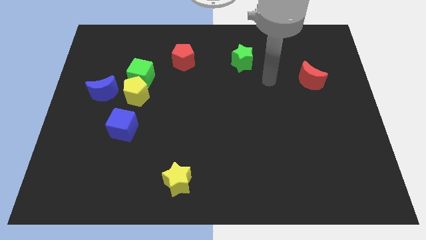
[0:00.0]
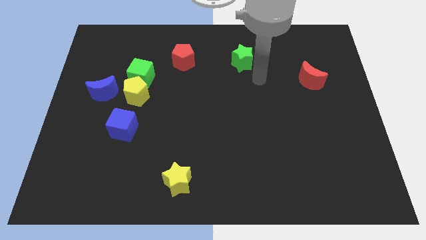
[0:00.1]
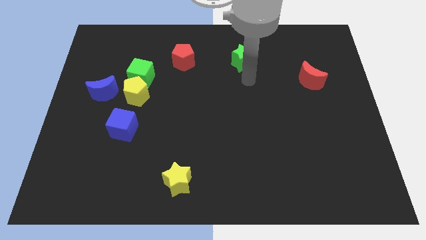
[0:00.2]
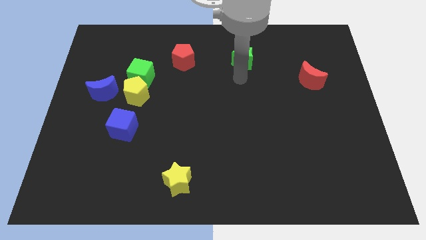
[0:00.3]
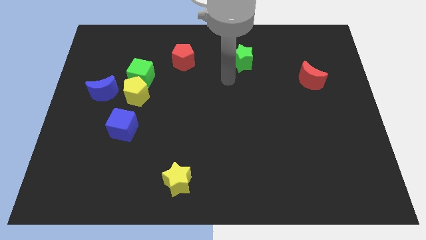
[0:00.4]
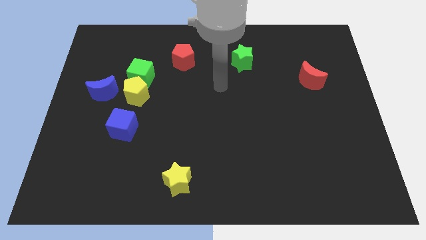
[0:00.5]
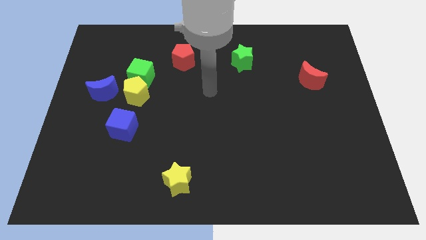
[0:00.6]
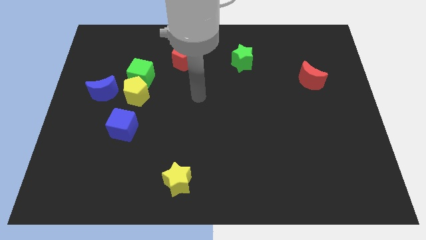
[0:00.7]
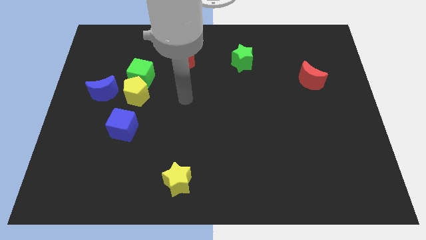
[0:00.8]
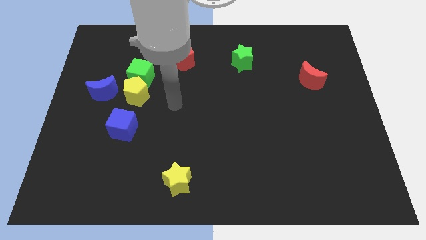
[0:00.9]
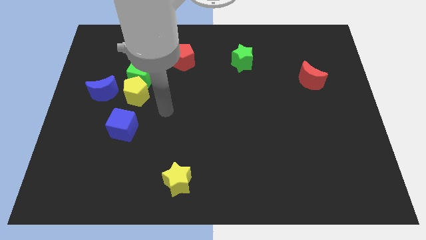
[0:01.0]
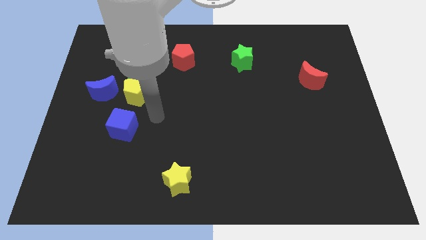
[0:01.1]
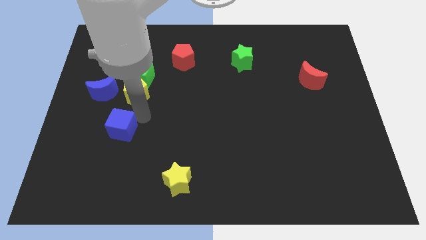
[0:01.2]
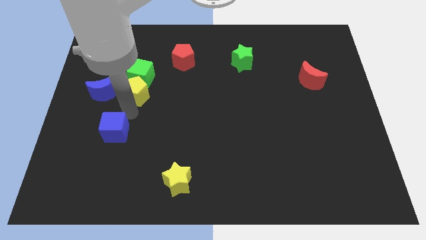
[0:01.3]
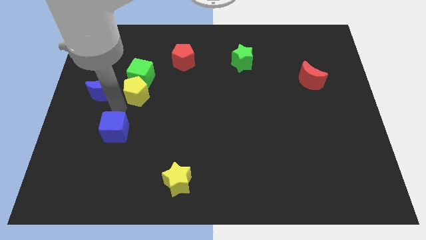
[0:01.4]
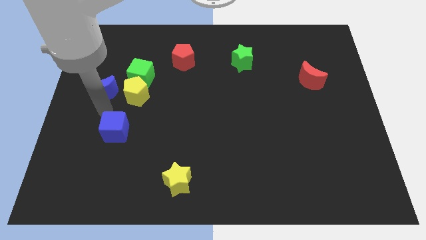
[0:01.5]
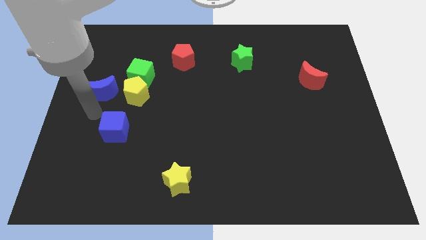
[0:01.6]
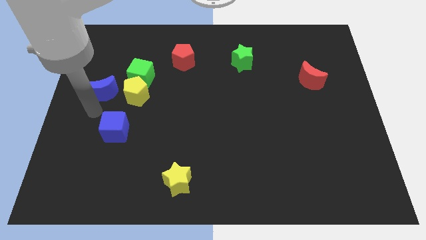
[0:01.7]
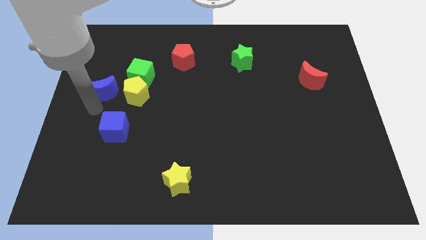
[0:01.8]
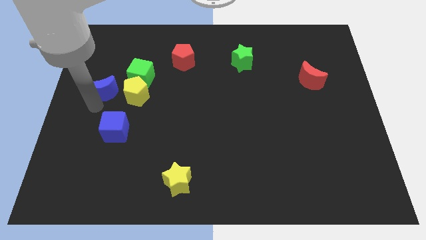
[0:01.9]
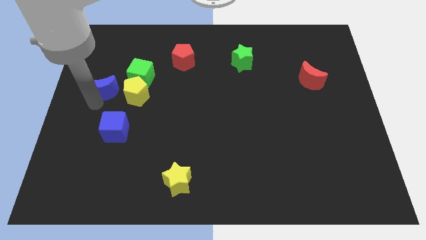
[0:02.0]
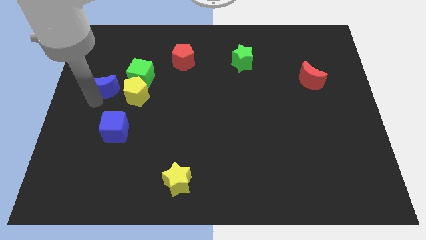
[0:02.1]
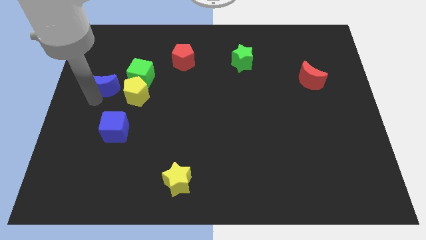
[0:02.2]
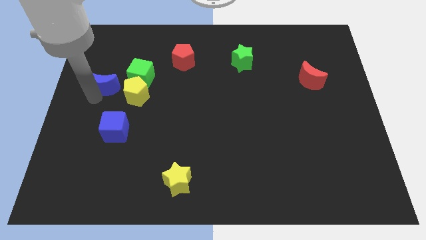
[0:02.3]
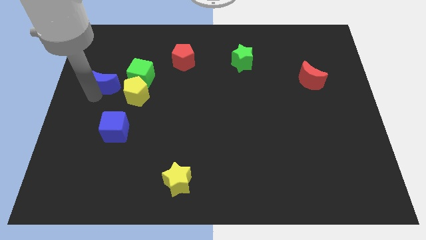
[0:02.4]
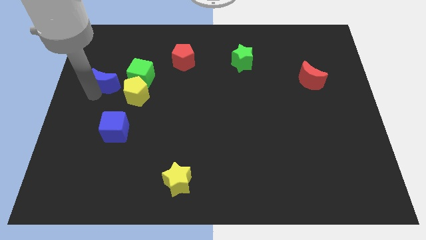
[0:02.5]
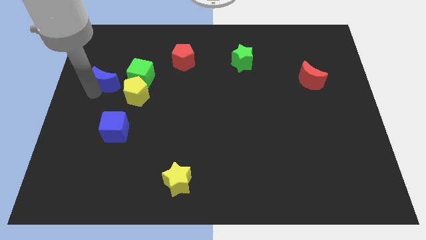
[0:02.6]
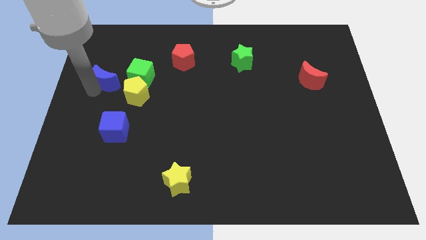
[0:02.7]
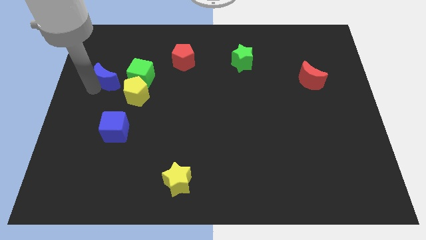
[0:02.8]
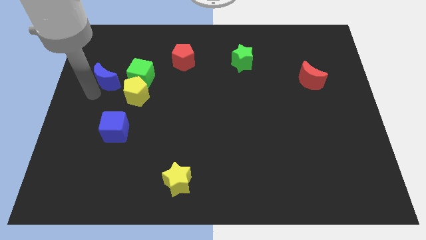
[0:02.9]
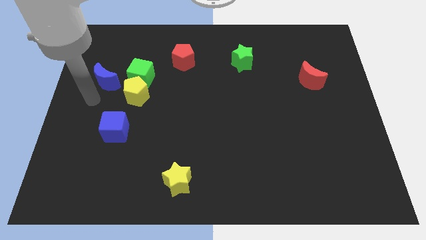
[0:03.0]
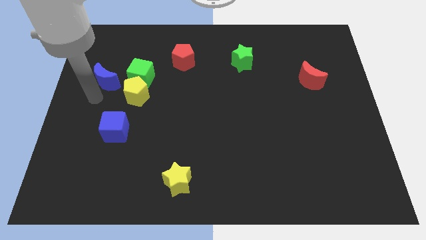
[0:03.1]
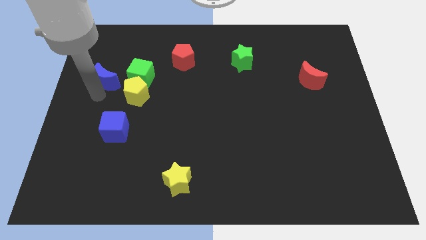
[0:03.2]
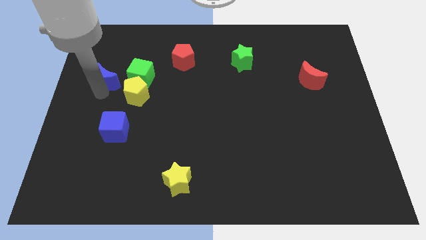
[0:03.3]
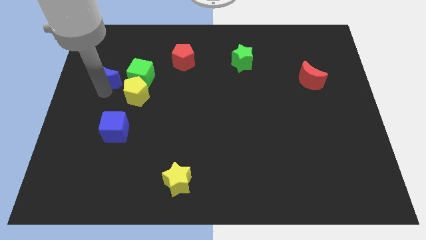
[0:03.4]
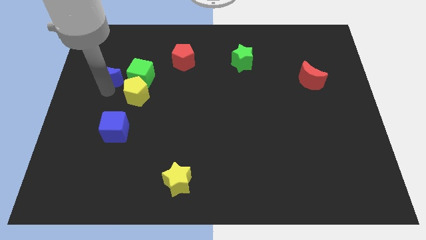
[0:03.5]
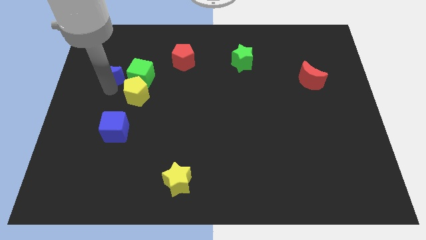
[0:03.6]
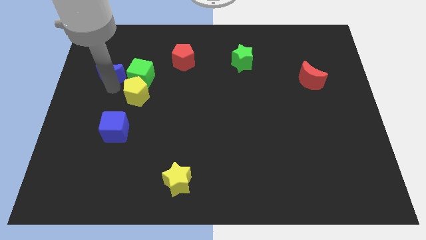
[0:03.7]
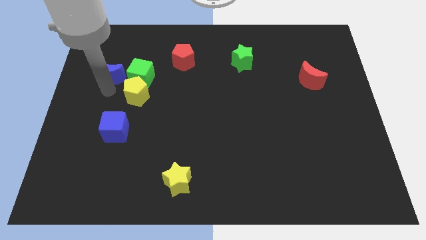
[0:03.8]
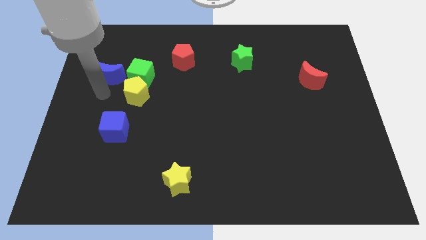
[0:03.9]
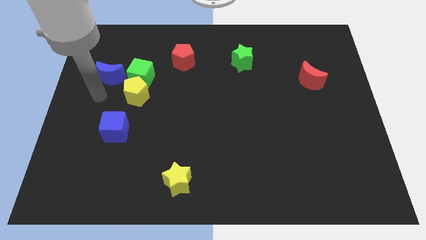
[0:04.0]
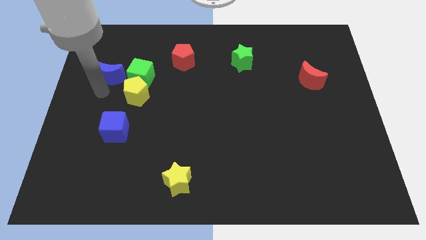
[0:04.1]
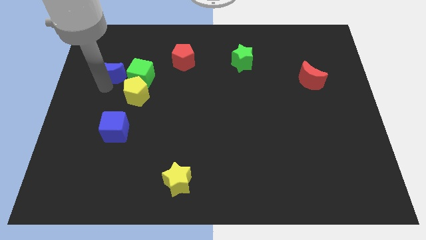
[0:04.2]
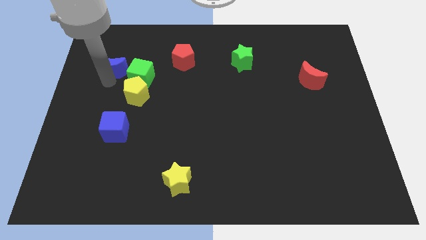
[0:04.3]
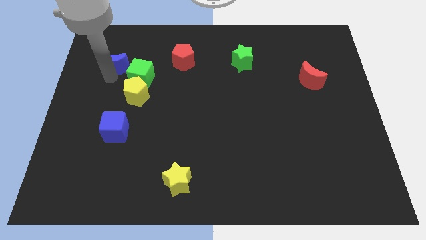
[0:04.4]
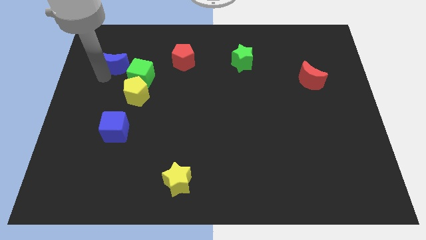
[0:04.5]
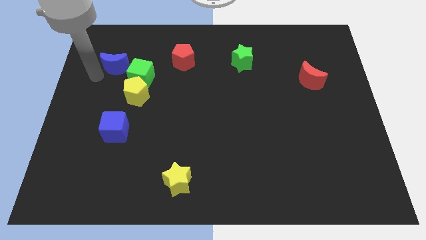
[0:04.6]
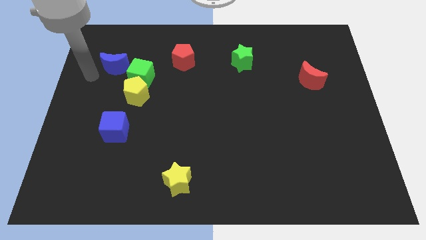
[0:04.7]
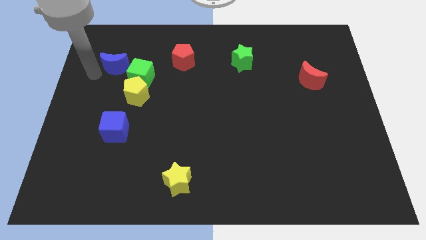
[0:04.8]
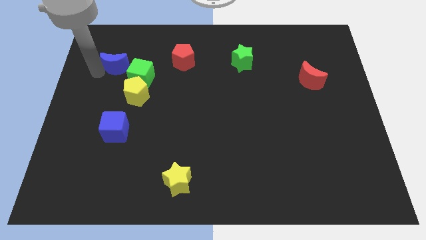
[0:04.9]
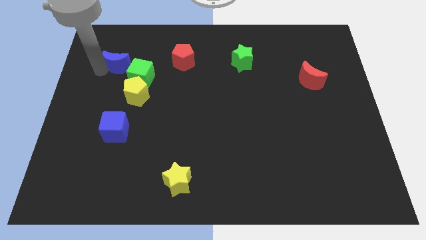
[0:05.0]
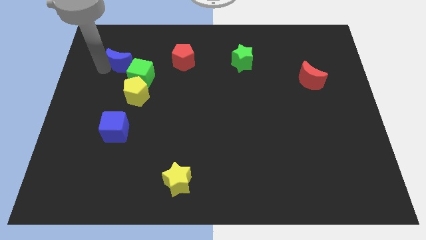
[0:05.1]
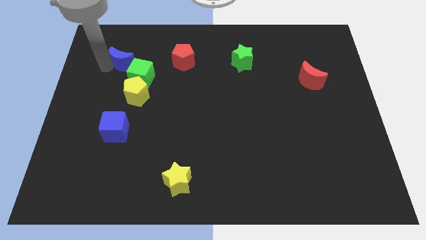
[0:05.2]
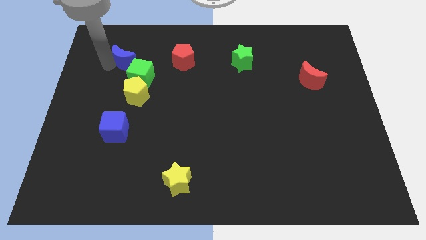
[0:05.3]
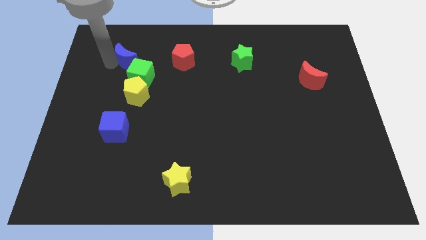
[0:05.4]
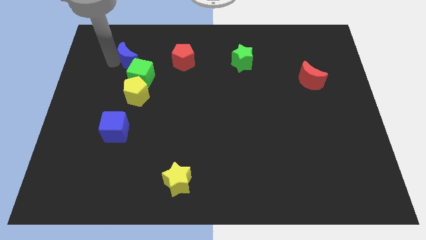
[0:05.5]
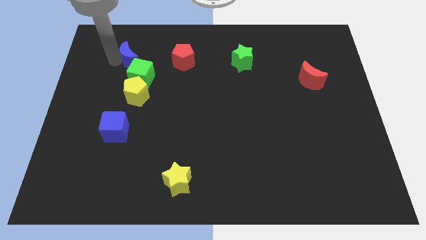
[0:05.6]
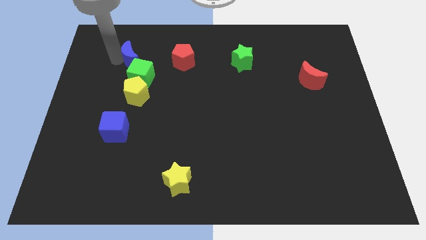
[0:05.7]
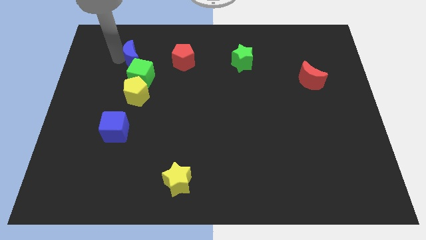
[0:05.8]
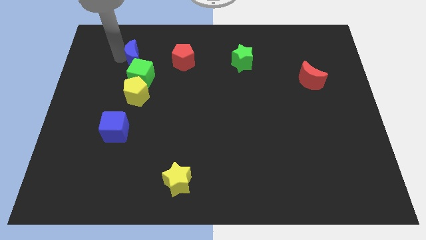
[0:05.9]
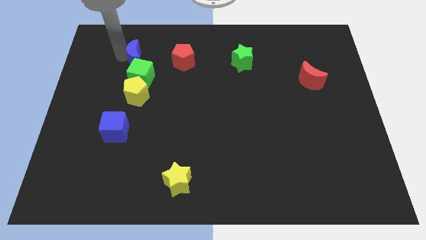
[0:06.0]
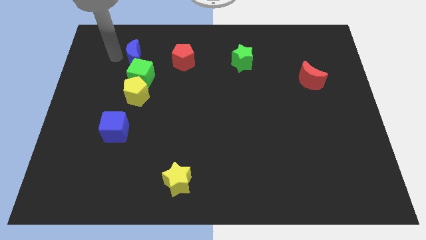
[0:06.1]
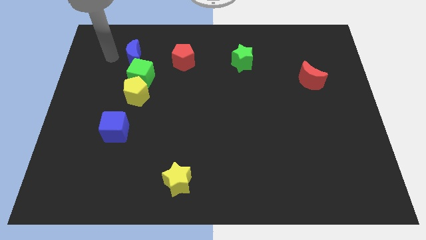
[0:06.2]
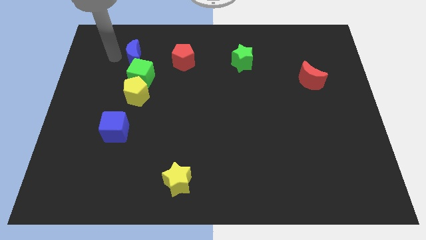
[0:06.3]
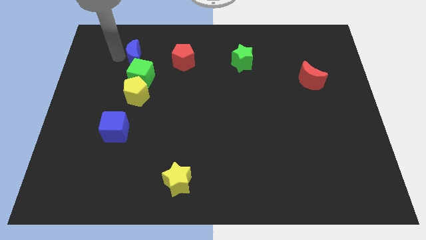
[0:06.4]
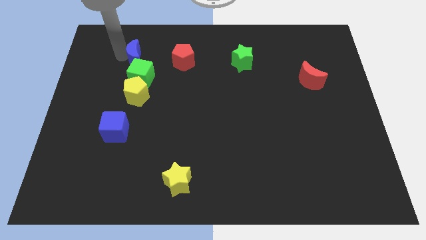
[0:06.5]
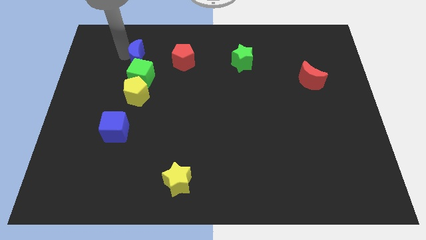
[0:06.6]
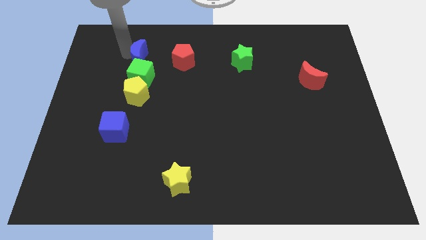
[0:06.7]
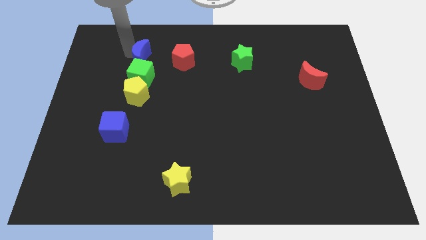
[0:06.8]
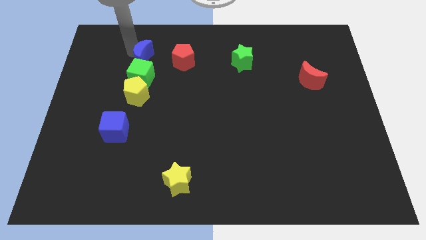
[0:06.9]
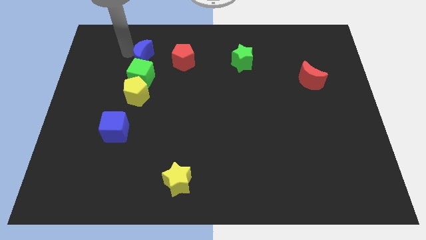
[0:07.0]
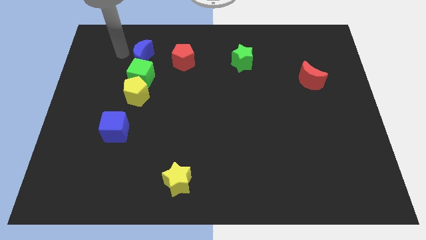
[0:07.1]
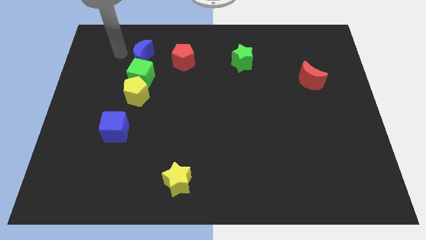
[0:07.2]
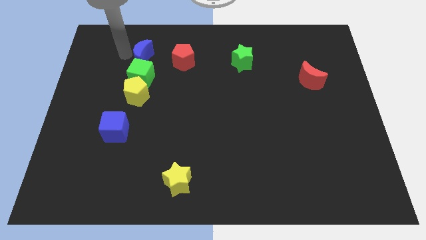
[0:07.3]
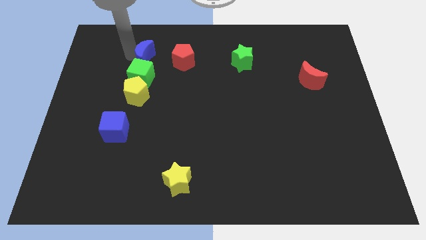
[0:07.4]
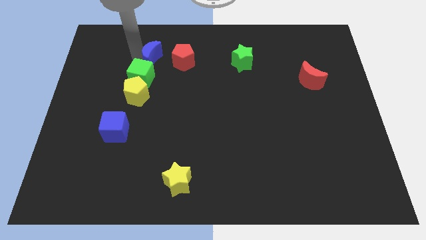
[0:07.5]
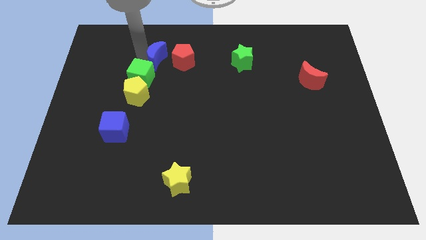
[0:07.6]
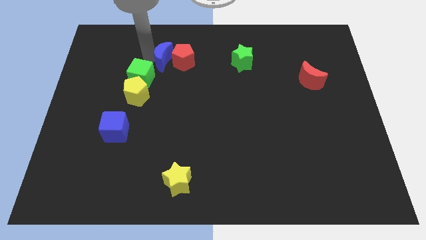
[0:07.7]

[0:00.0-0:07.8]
push the blue moon close to the red pentagon

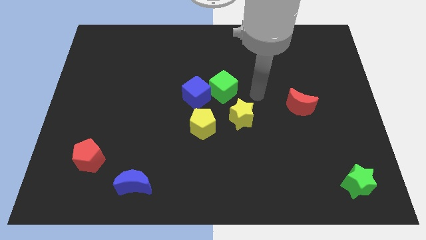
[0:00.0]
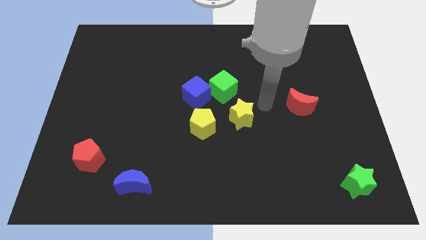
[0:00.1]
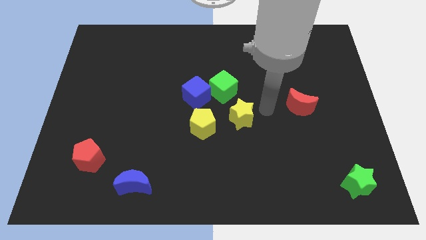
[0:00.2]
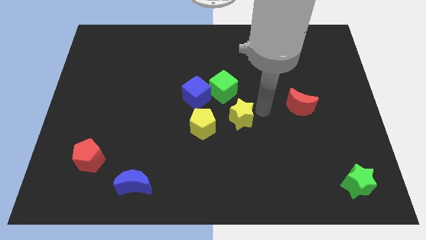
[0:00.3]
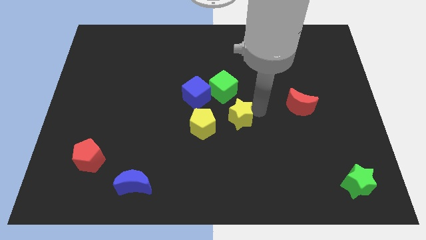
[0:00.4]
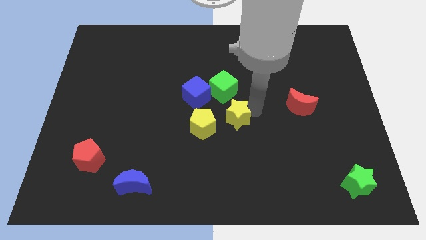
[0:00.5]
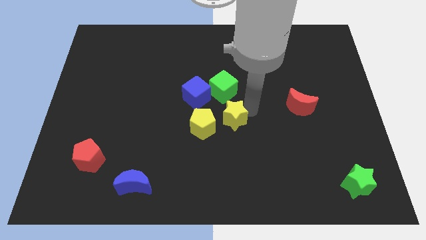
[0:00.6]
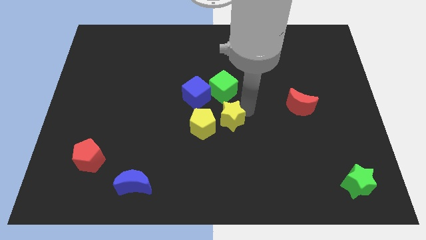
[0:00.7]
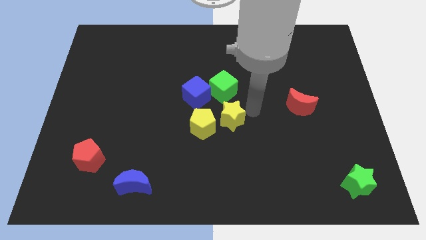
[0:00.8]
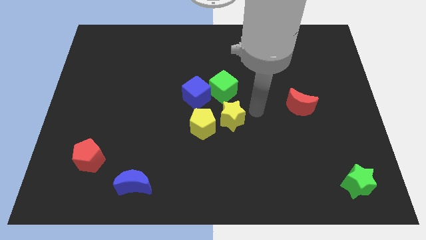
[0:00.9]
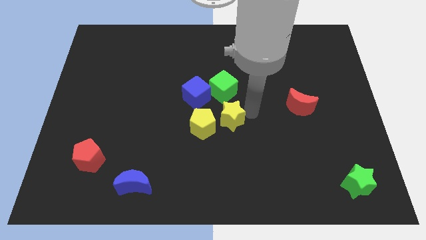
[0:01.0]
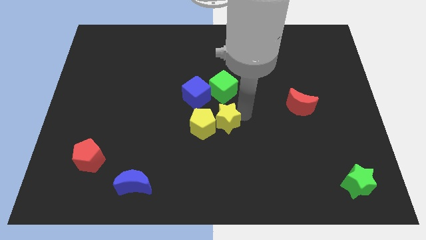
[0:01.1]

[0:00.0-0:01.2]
move the yellow star to the yellow pentagon
